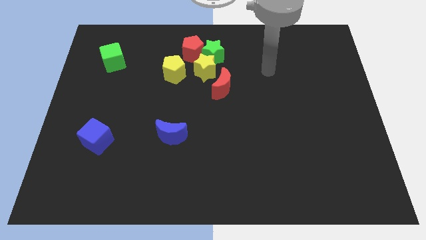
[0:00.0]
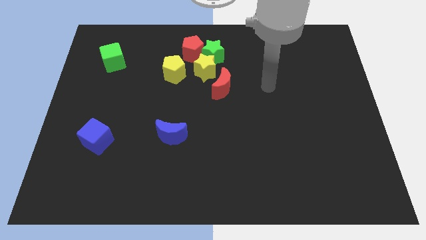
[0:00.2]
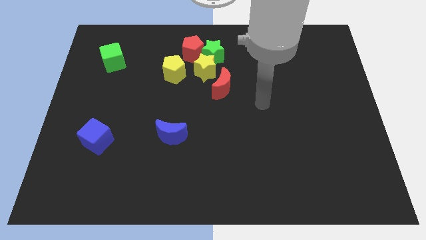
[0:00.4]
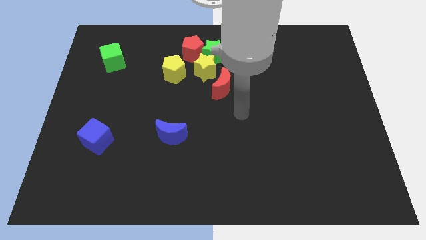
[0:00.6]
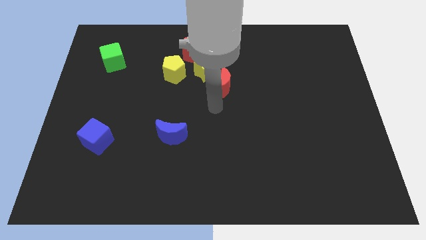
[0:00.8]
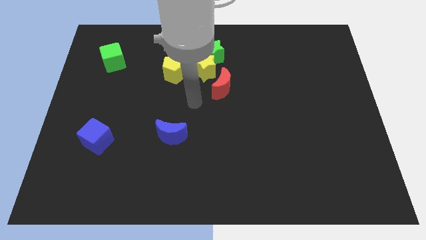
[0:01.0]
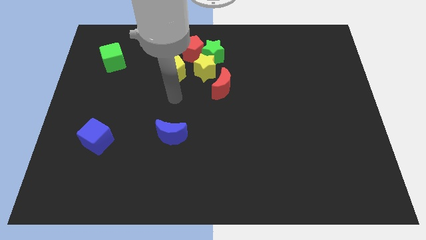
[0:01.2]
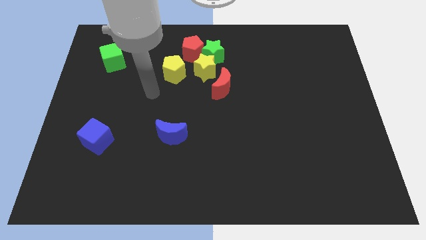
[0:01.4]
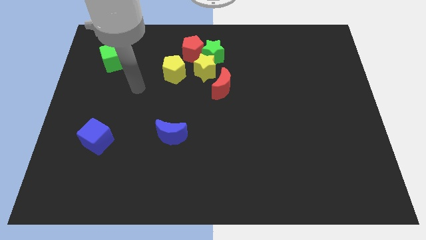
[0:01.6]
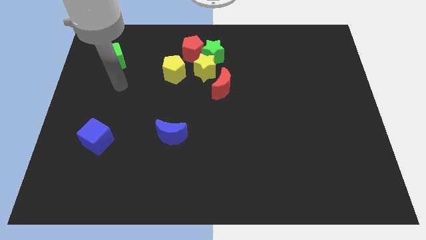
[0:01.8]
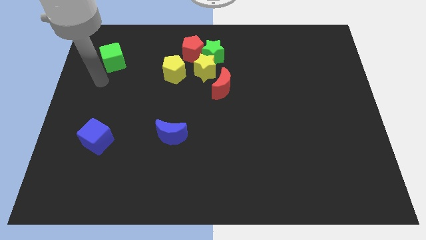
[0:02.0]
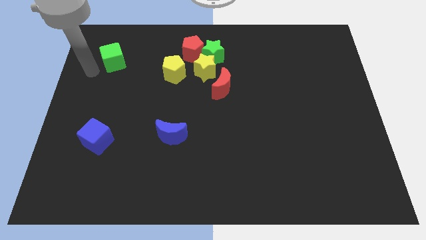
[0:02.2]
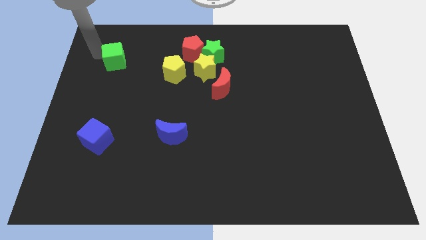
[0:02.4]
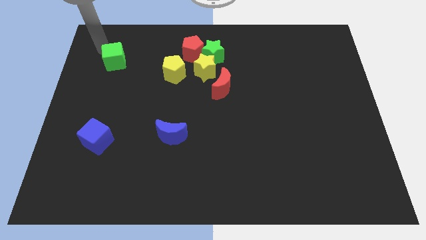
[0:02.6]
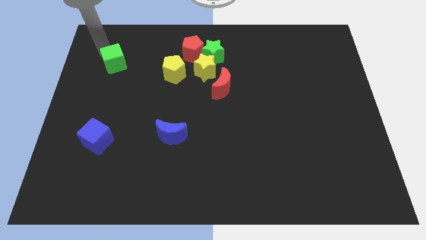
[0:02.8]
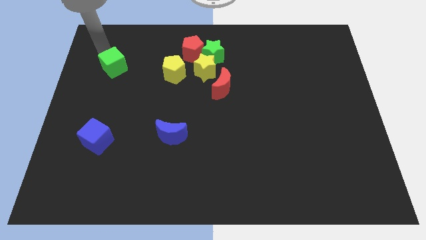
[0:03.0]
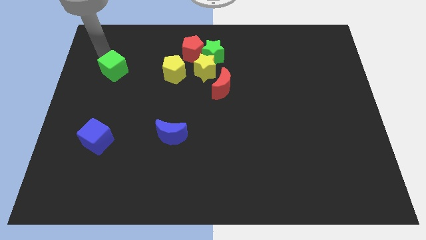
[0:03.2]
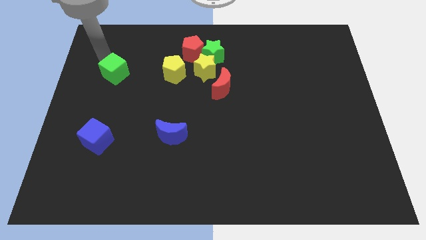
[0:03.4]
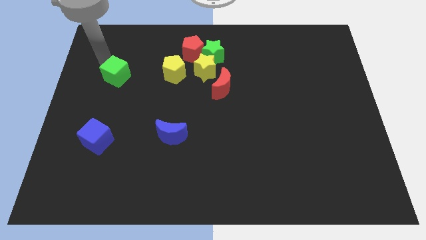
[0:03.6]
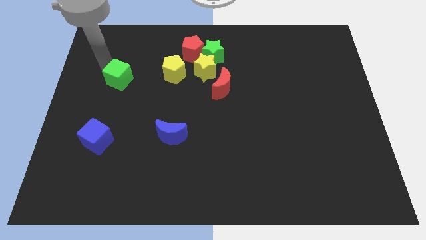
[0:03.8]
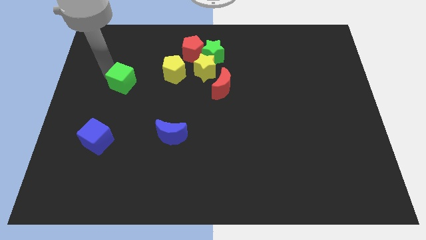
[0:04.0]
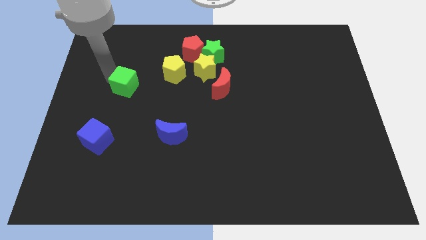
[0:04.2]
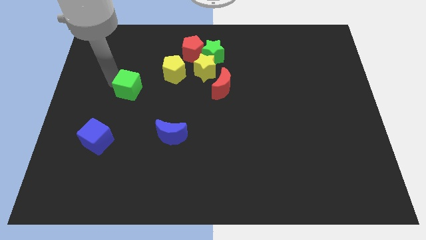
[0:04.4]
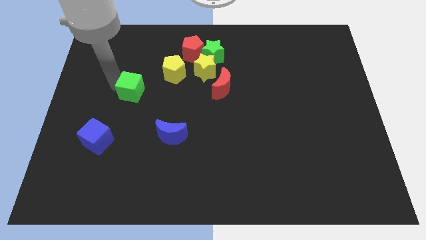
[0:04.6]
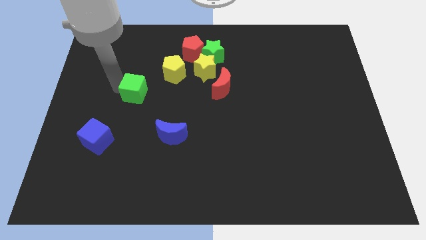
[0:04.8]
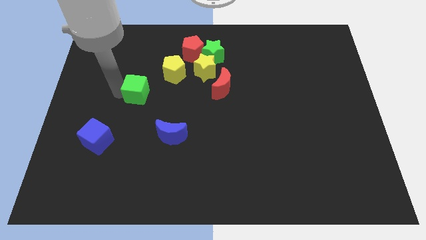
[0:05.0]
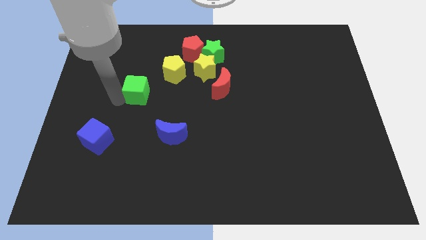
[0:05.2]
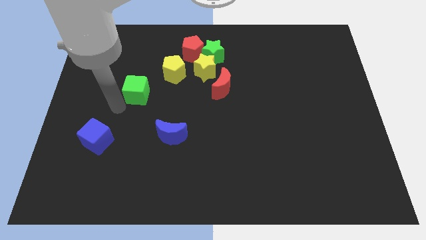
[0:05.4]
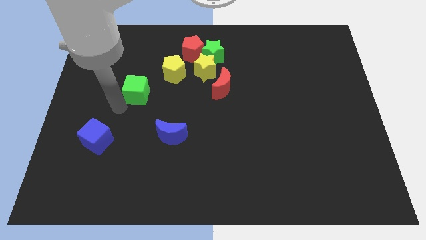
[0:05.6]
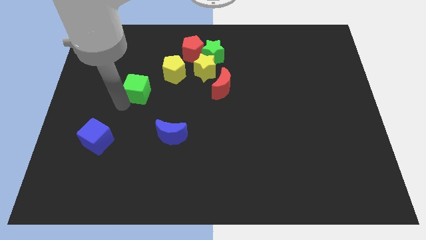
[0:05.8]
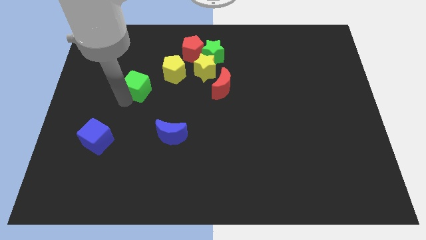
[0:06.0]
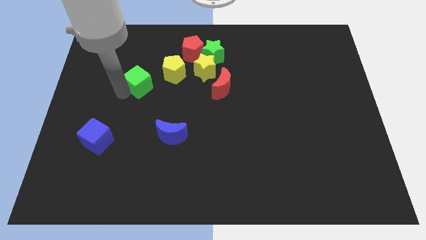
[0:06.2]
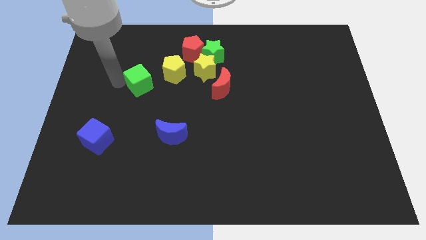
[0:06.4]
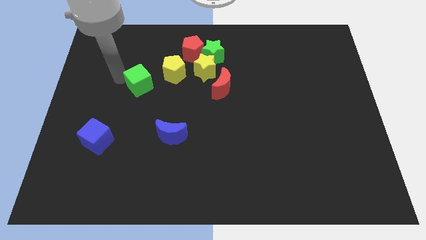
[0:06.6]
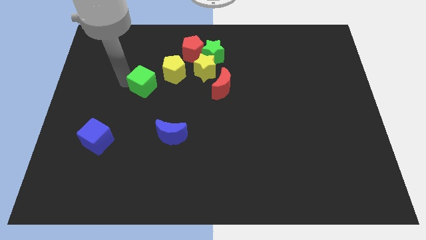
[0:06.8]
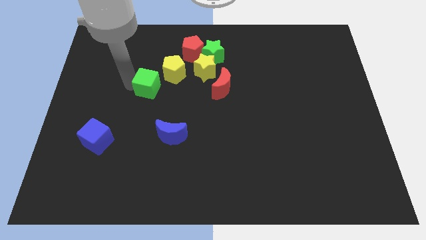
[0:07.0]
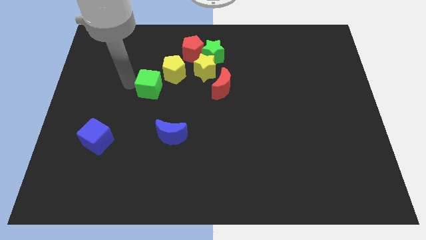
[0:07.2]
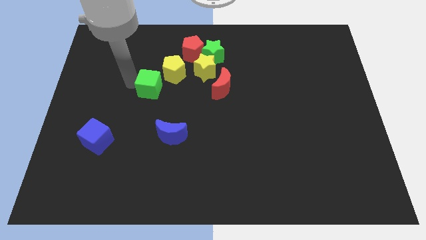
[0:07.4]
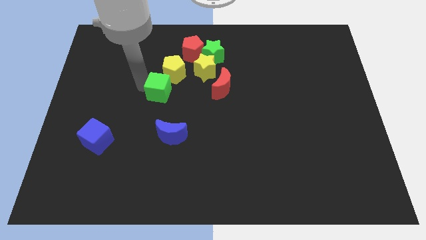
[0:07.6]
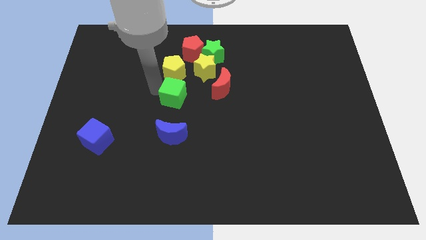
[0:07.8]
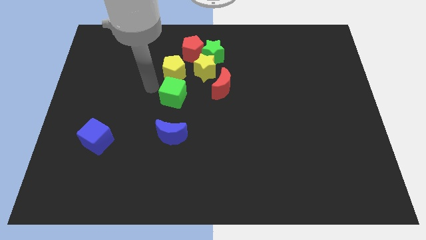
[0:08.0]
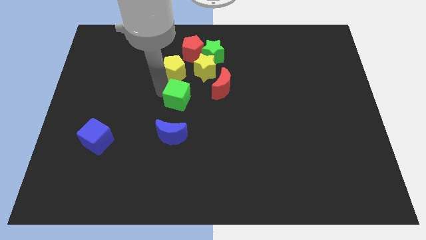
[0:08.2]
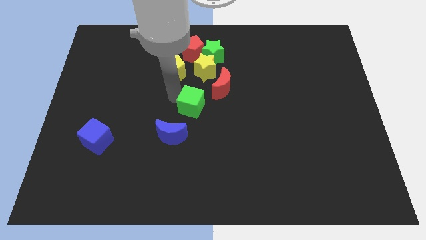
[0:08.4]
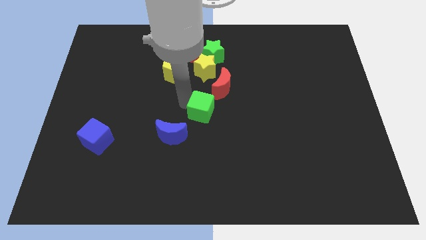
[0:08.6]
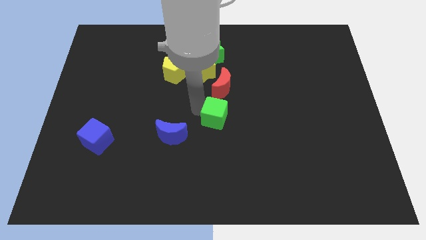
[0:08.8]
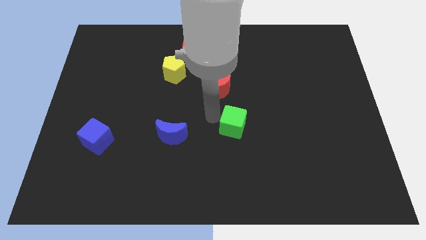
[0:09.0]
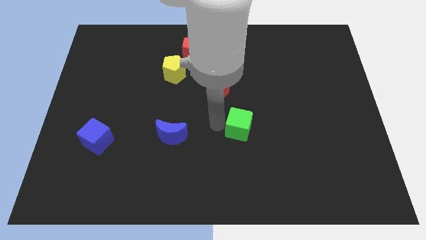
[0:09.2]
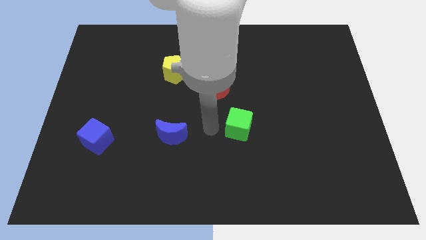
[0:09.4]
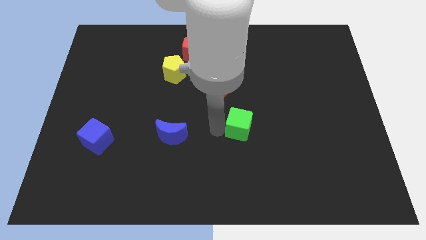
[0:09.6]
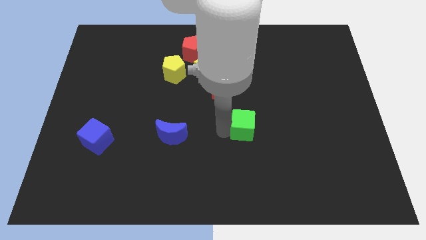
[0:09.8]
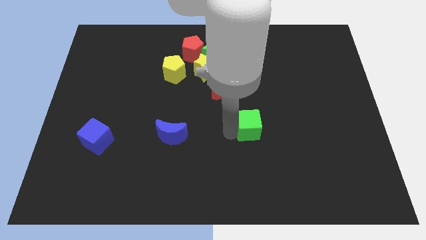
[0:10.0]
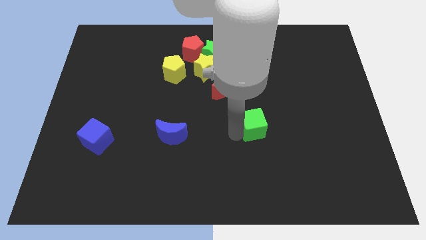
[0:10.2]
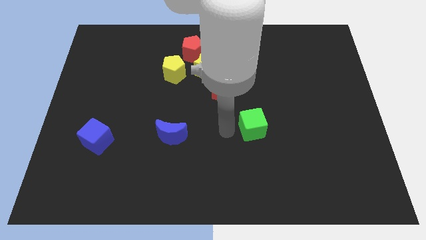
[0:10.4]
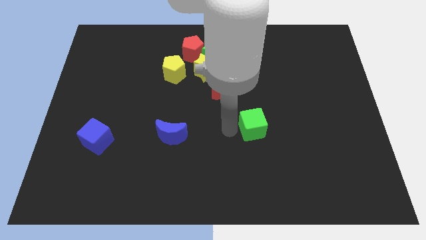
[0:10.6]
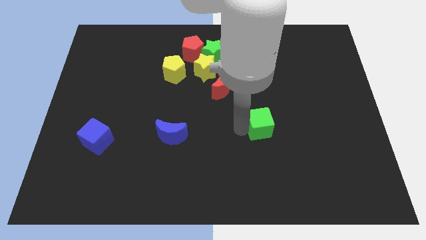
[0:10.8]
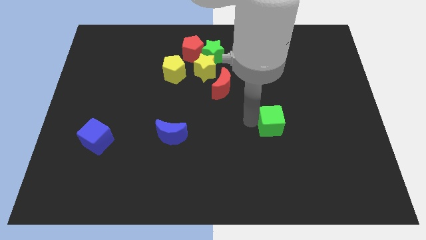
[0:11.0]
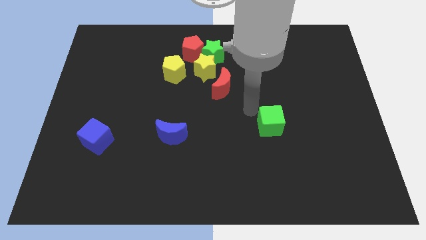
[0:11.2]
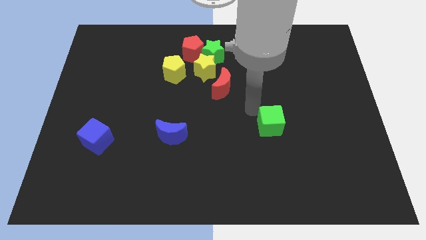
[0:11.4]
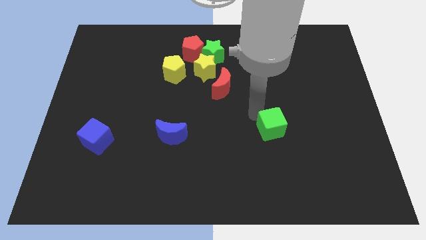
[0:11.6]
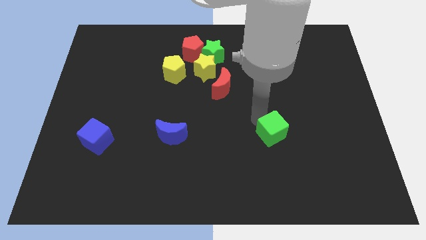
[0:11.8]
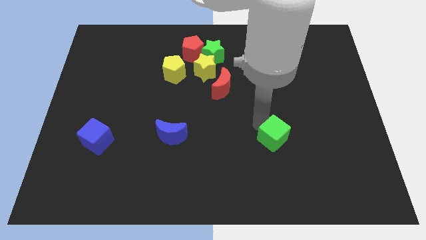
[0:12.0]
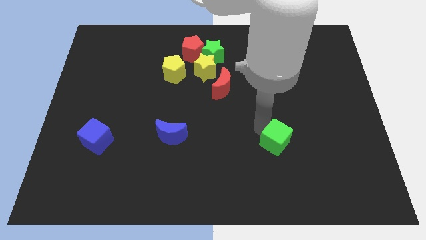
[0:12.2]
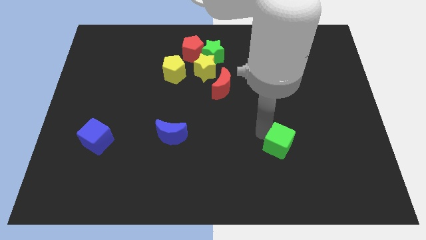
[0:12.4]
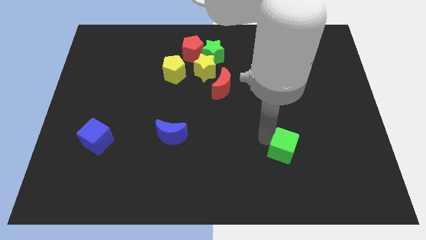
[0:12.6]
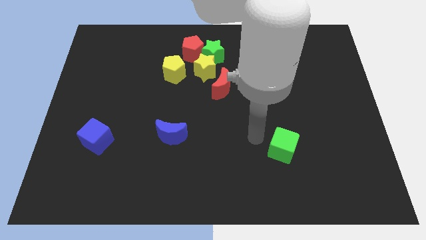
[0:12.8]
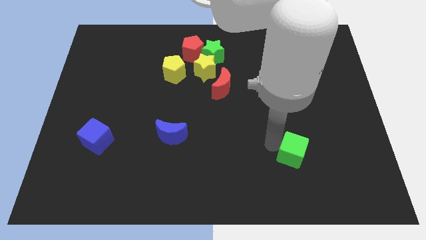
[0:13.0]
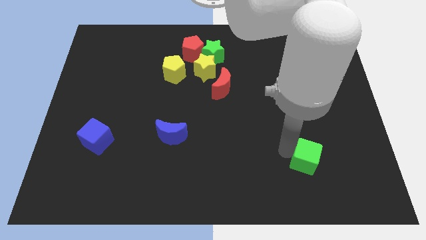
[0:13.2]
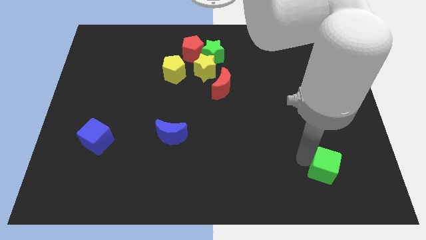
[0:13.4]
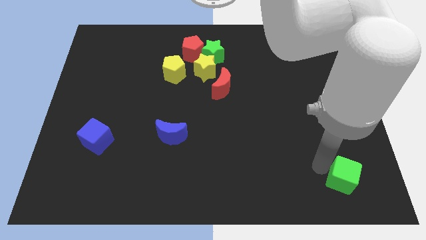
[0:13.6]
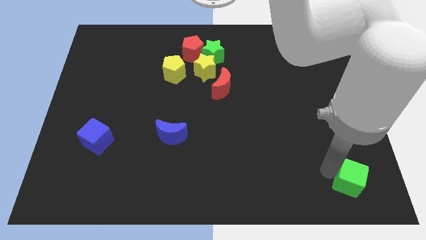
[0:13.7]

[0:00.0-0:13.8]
put the green cube to the lower right corner
